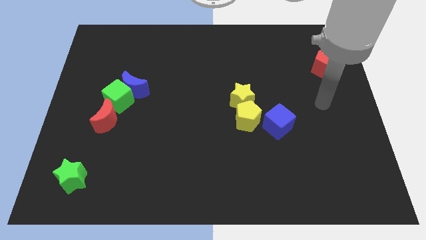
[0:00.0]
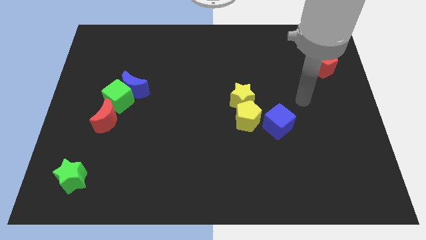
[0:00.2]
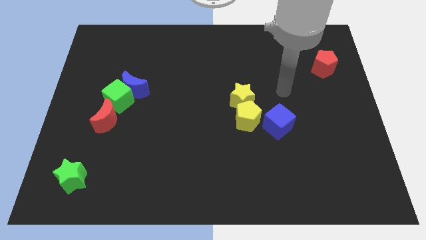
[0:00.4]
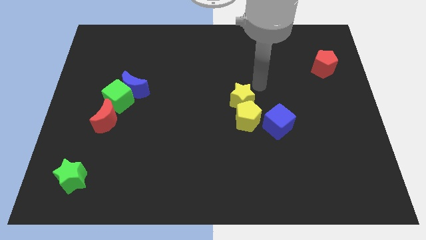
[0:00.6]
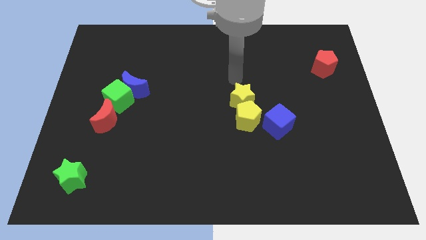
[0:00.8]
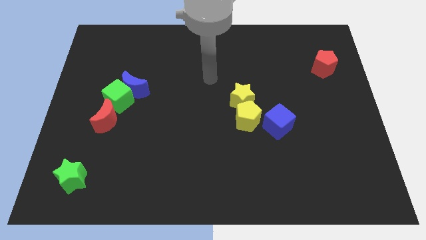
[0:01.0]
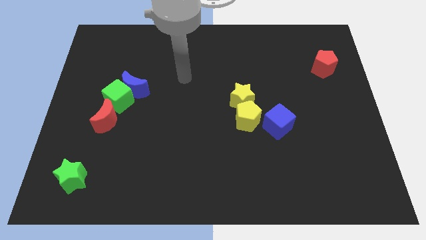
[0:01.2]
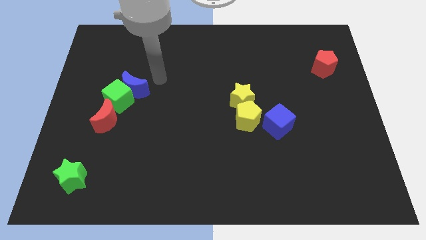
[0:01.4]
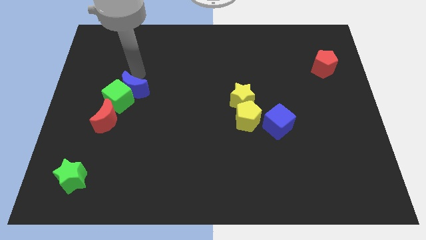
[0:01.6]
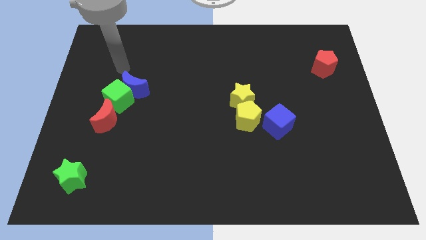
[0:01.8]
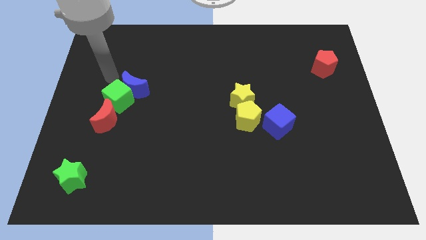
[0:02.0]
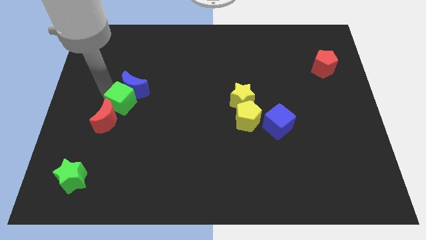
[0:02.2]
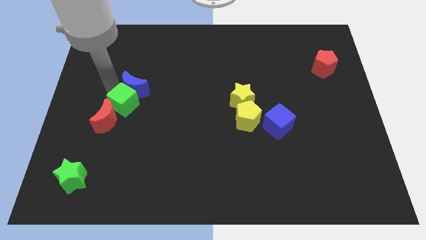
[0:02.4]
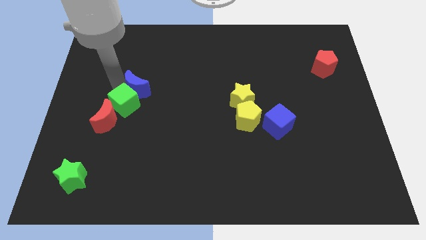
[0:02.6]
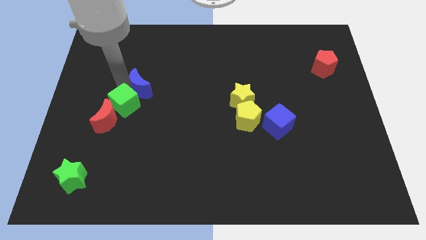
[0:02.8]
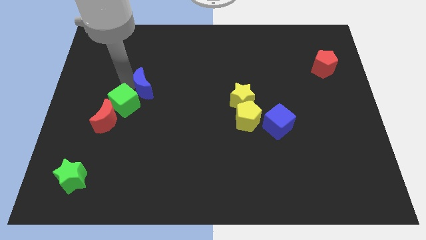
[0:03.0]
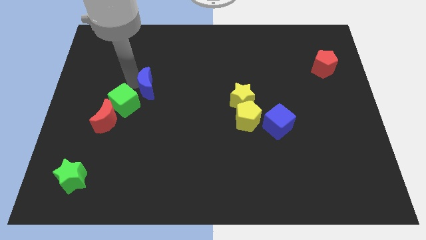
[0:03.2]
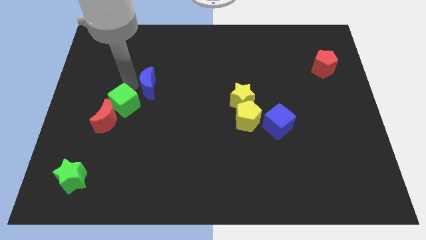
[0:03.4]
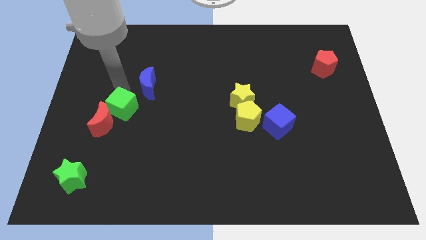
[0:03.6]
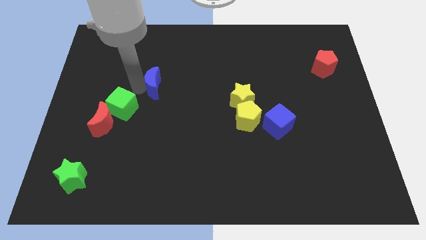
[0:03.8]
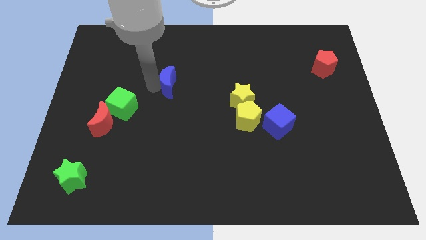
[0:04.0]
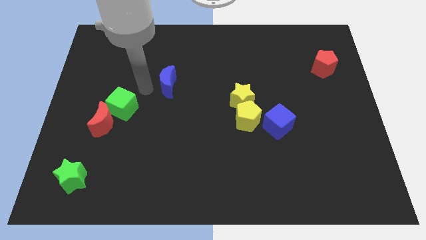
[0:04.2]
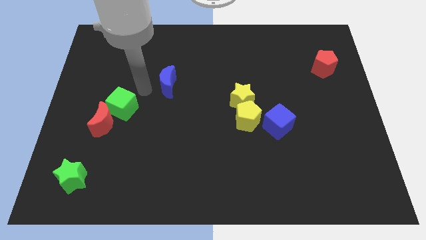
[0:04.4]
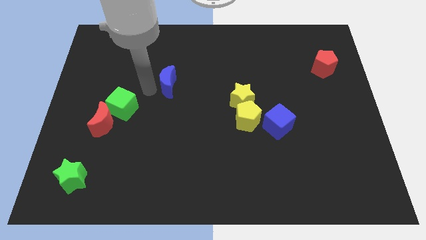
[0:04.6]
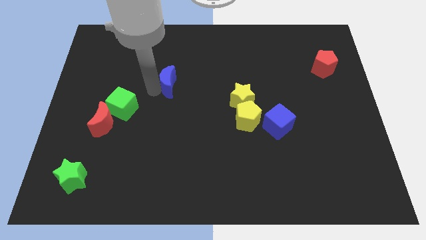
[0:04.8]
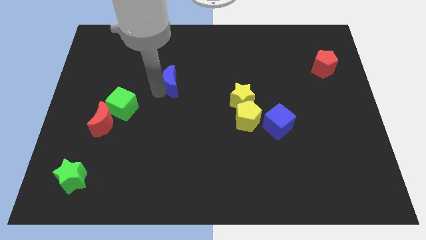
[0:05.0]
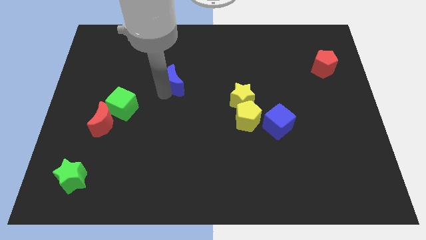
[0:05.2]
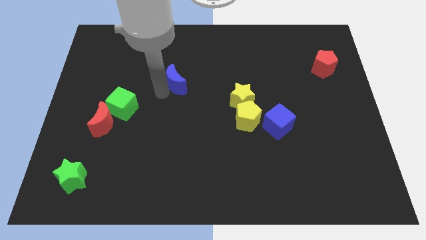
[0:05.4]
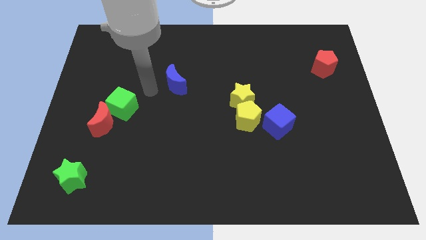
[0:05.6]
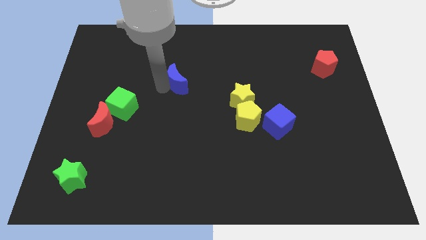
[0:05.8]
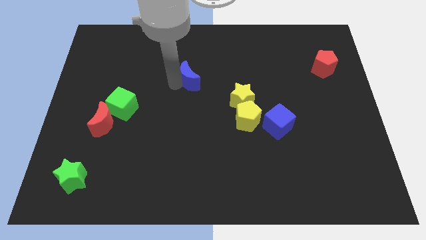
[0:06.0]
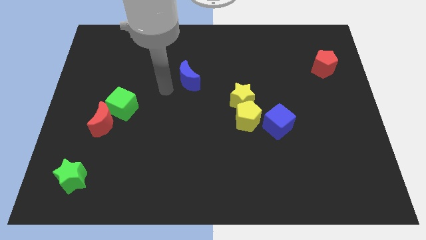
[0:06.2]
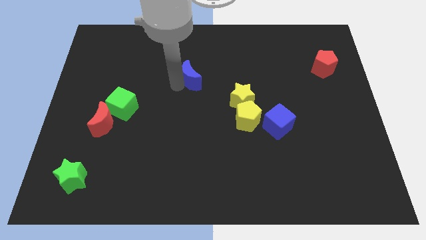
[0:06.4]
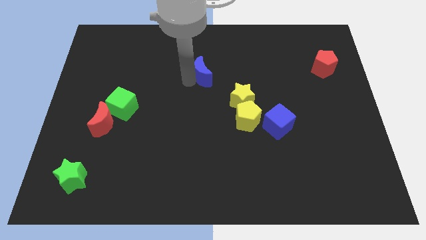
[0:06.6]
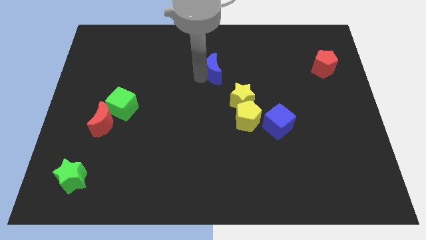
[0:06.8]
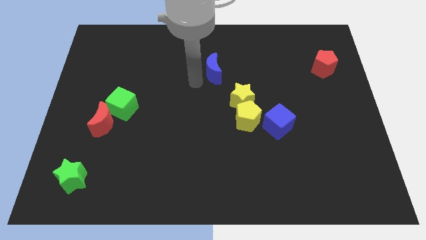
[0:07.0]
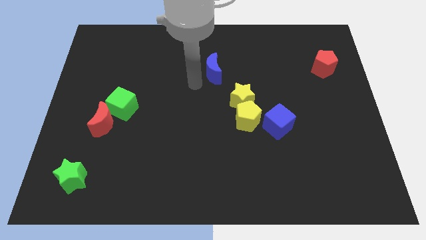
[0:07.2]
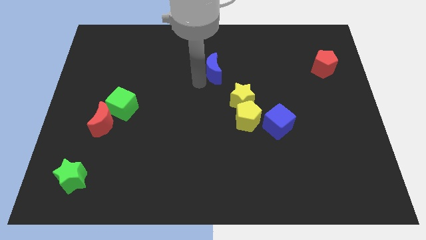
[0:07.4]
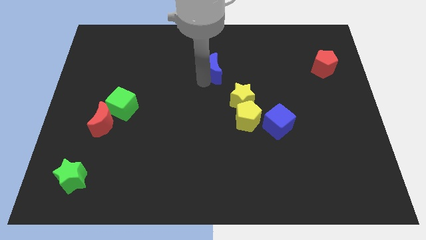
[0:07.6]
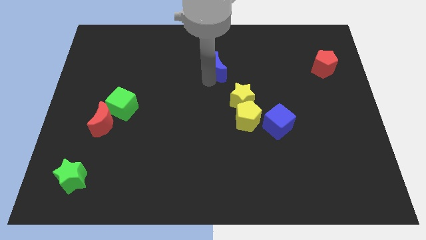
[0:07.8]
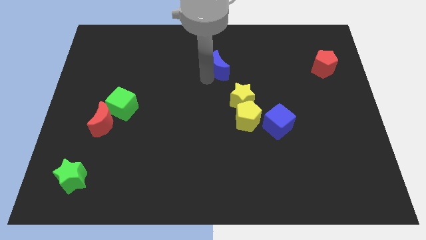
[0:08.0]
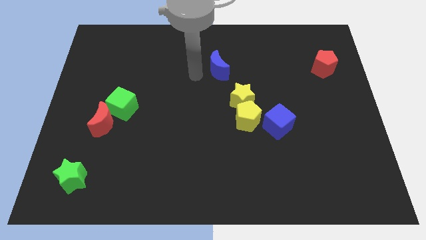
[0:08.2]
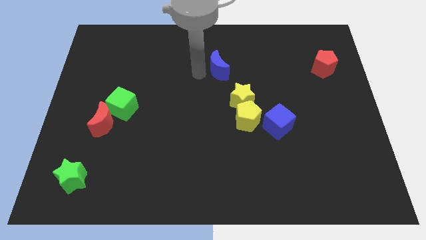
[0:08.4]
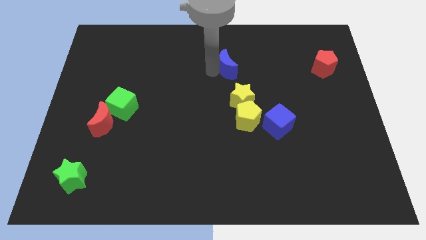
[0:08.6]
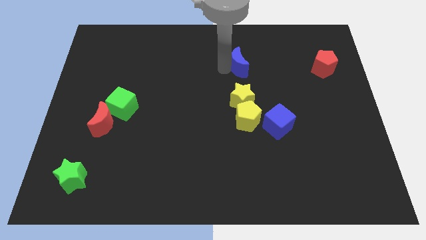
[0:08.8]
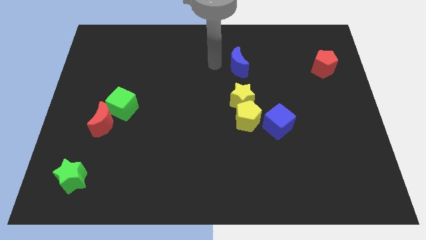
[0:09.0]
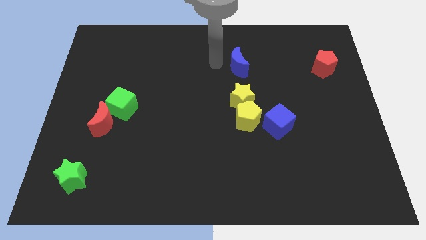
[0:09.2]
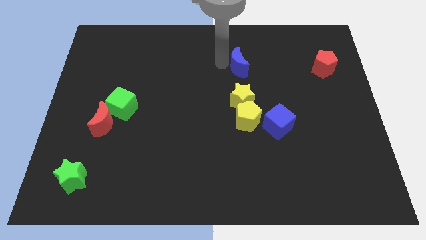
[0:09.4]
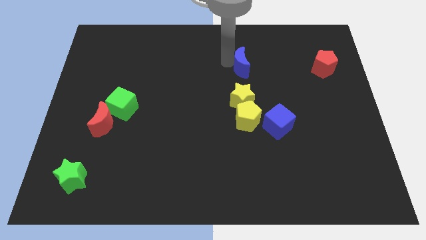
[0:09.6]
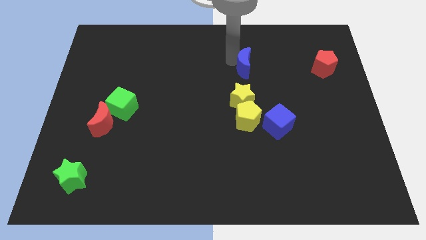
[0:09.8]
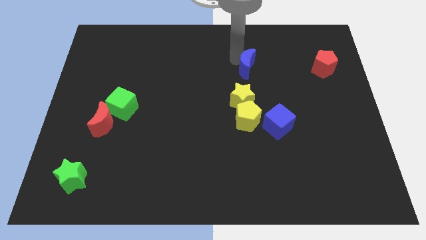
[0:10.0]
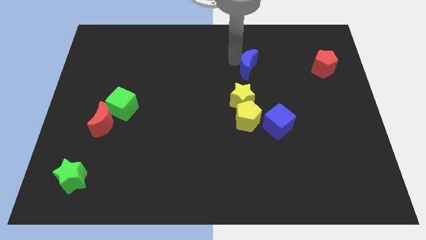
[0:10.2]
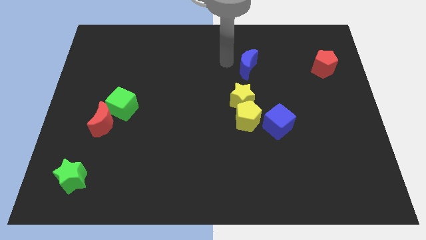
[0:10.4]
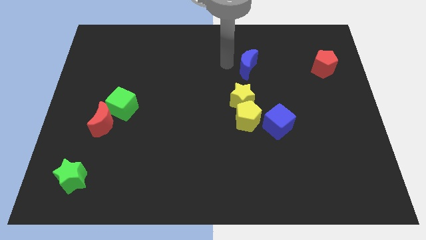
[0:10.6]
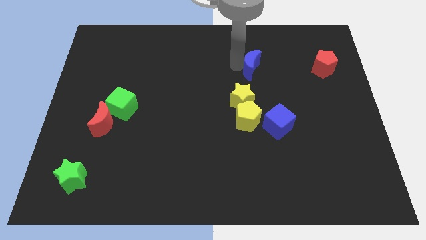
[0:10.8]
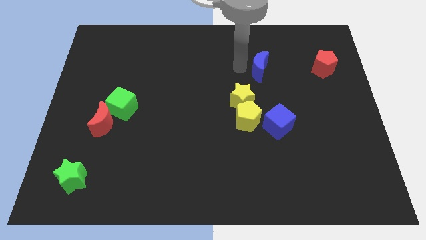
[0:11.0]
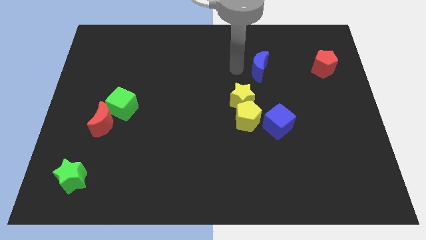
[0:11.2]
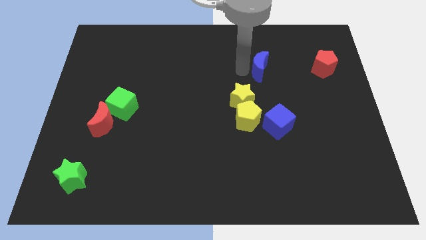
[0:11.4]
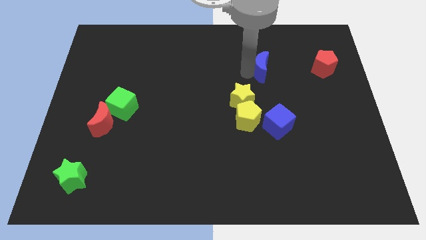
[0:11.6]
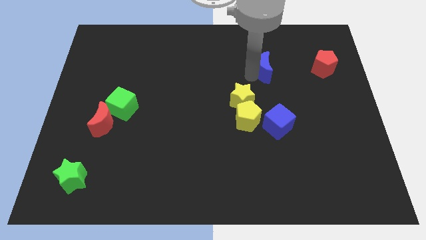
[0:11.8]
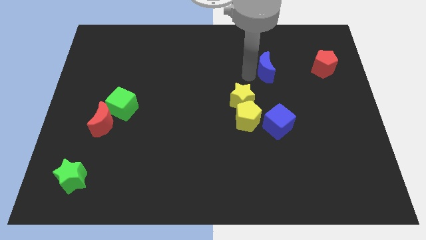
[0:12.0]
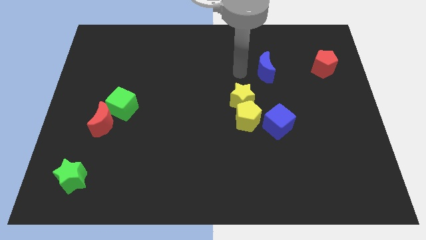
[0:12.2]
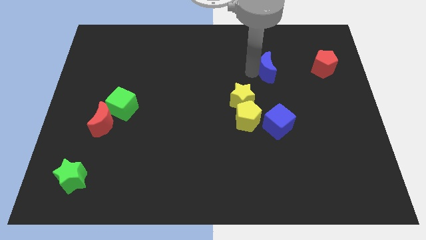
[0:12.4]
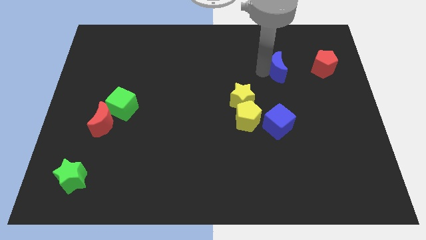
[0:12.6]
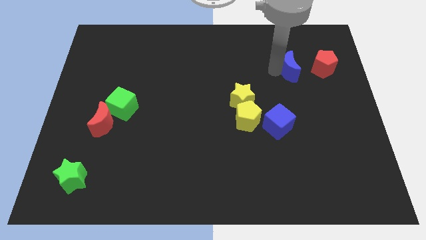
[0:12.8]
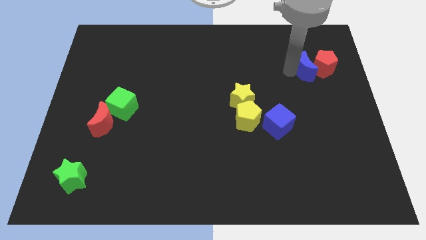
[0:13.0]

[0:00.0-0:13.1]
push the blue moon towards the red pentagon
